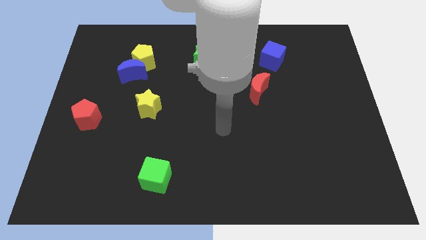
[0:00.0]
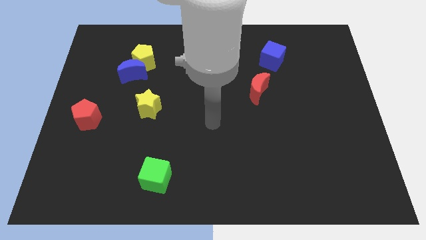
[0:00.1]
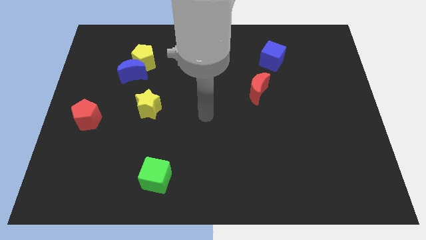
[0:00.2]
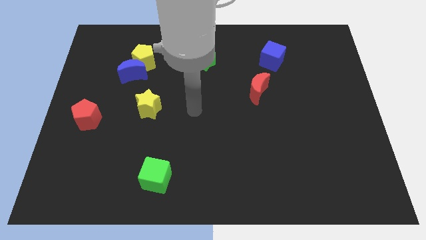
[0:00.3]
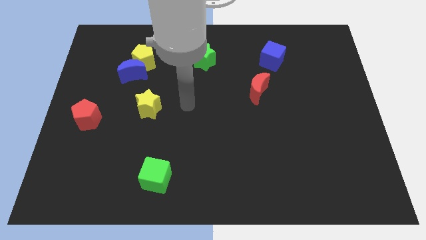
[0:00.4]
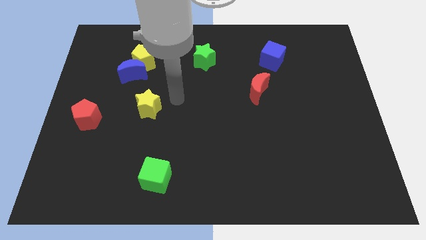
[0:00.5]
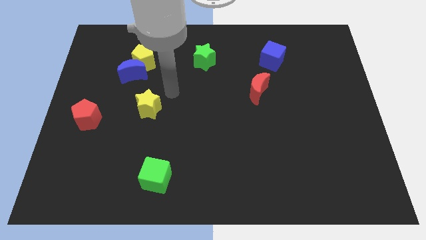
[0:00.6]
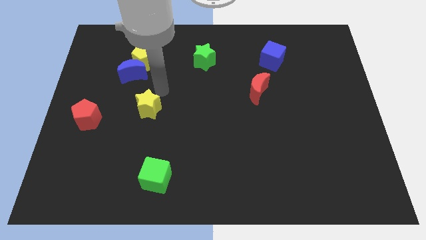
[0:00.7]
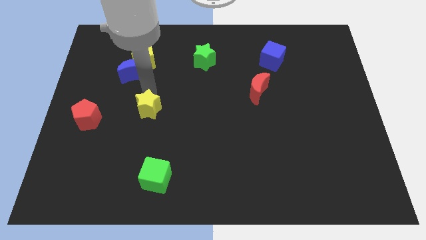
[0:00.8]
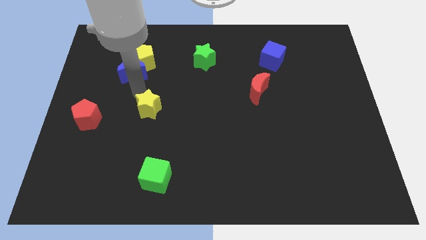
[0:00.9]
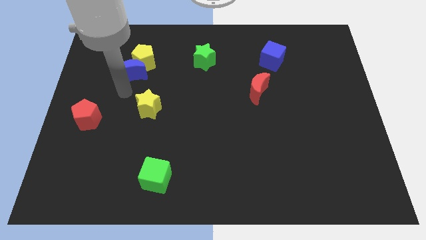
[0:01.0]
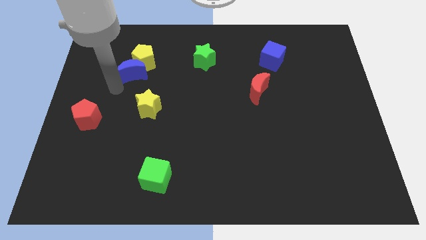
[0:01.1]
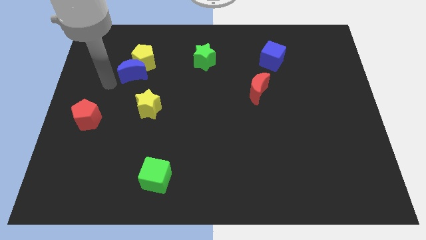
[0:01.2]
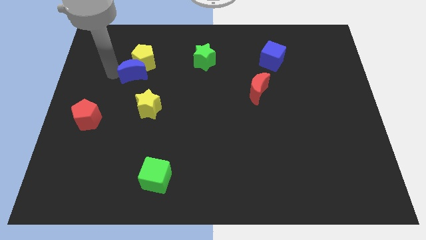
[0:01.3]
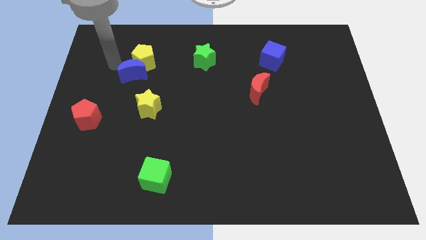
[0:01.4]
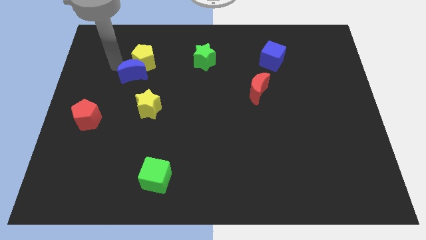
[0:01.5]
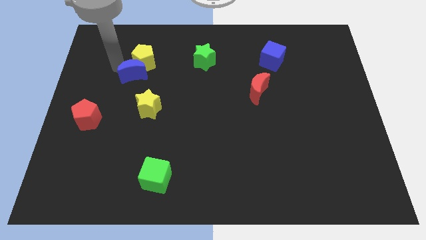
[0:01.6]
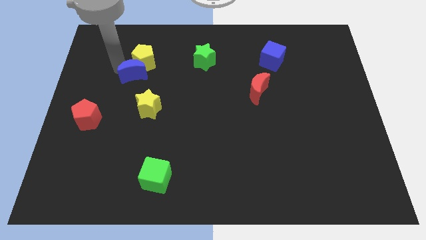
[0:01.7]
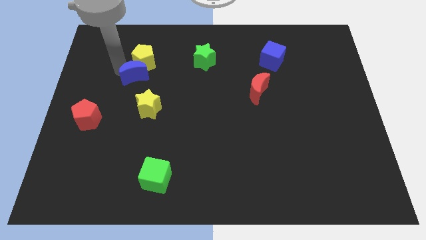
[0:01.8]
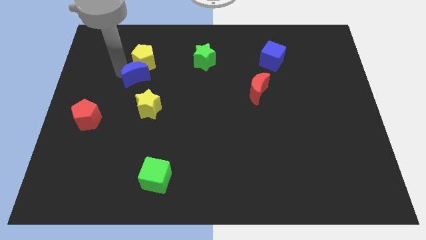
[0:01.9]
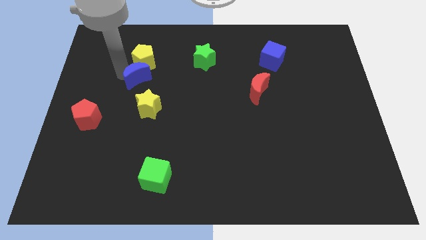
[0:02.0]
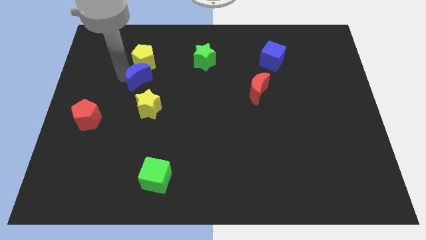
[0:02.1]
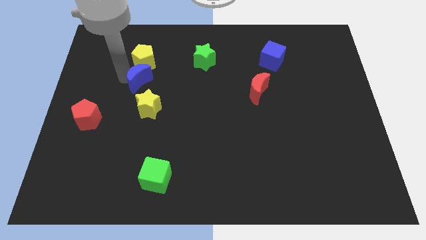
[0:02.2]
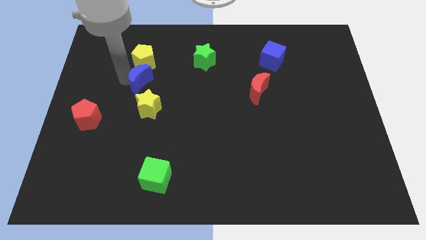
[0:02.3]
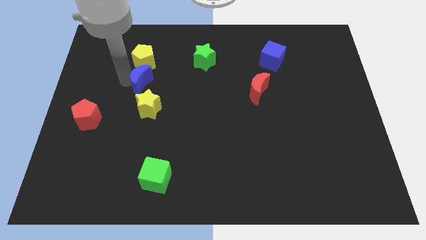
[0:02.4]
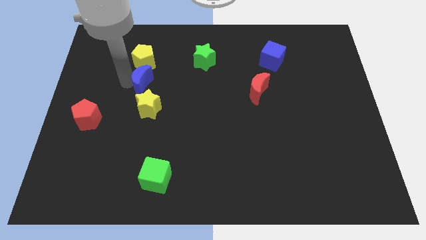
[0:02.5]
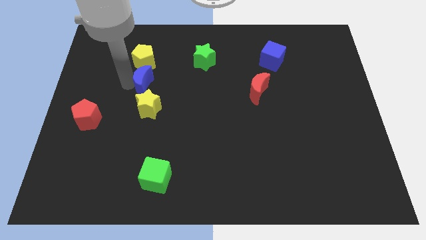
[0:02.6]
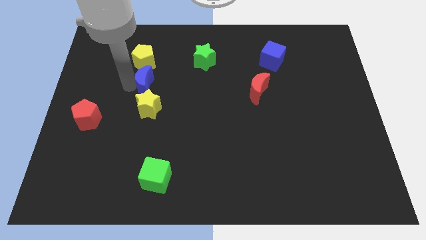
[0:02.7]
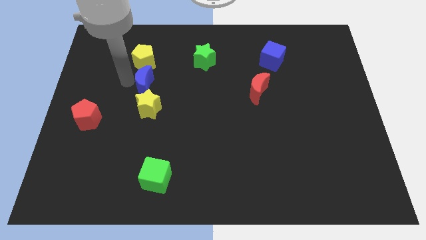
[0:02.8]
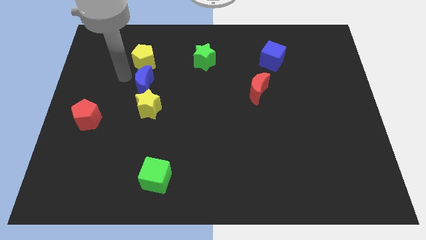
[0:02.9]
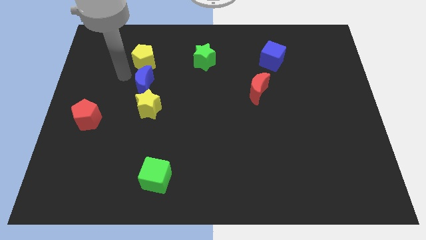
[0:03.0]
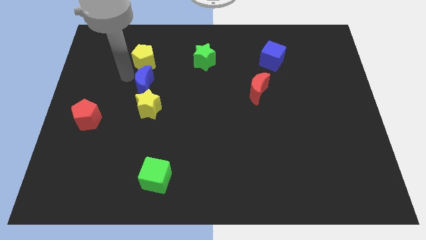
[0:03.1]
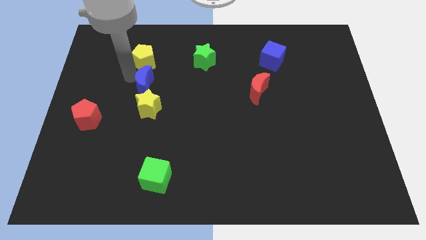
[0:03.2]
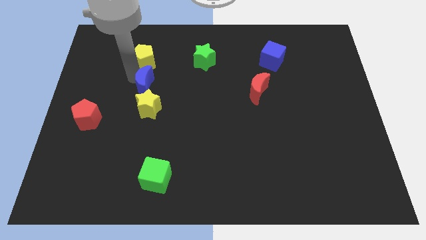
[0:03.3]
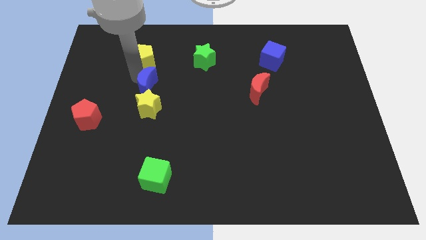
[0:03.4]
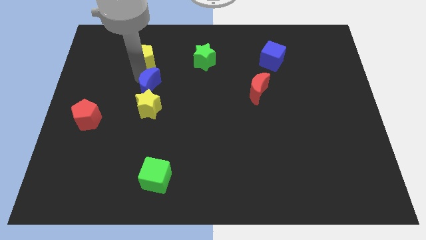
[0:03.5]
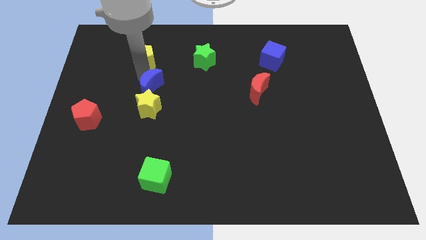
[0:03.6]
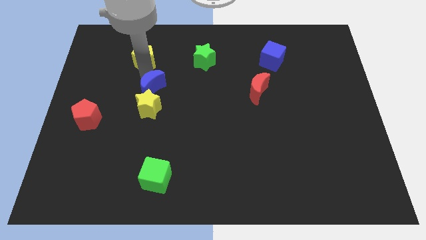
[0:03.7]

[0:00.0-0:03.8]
slightly push the blue moon diagonally down and right

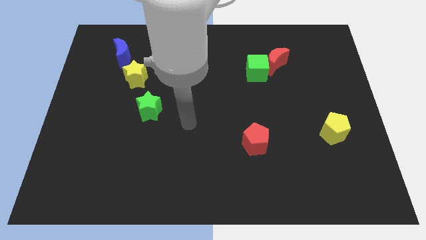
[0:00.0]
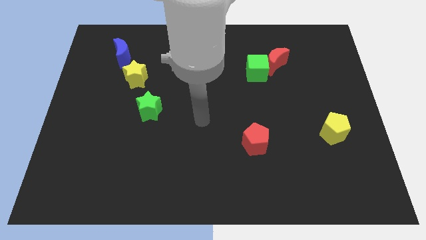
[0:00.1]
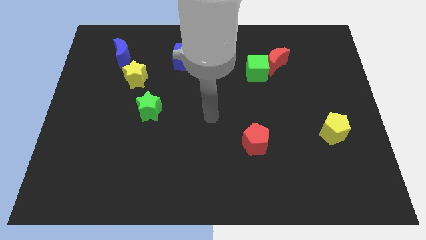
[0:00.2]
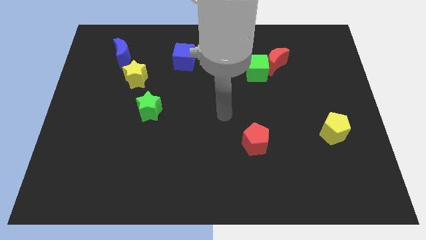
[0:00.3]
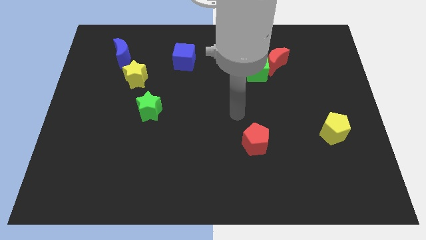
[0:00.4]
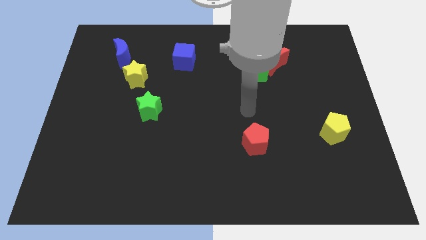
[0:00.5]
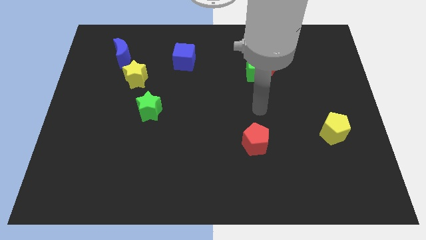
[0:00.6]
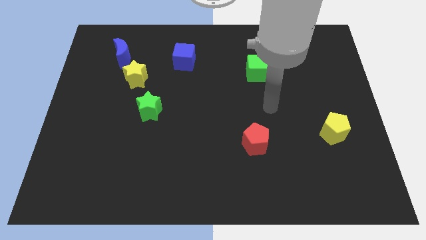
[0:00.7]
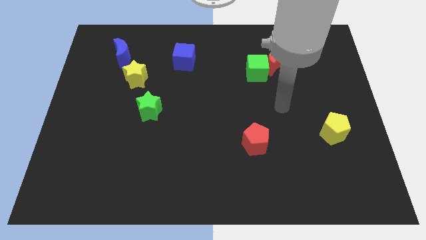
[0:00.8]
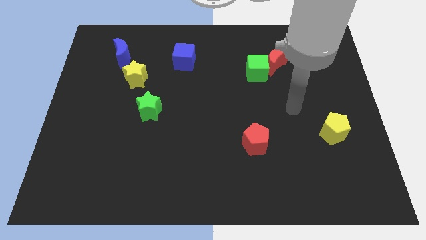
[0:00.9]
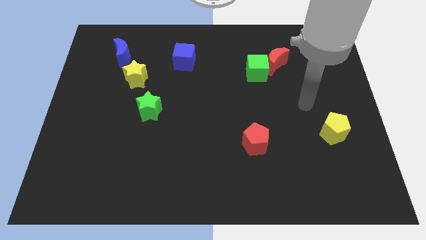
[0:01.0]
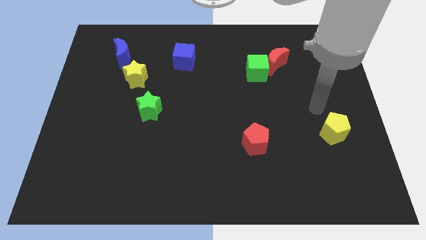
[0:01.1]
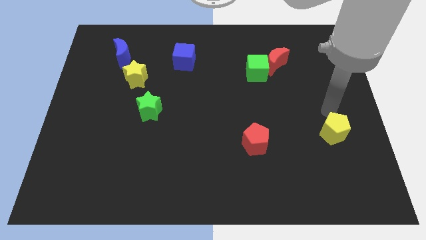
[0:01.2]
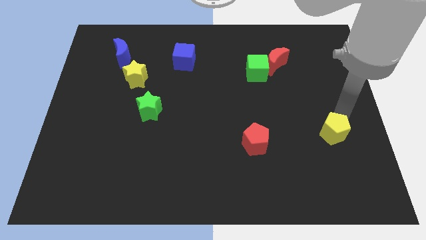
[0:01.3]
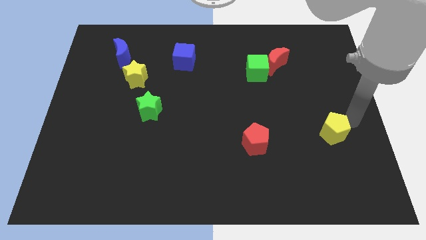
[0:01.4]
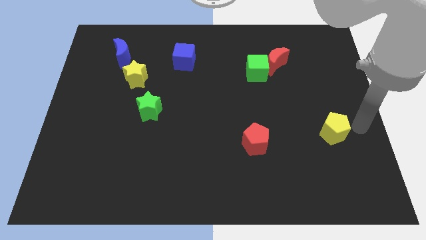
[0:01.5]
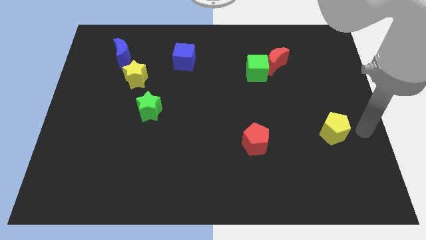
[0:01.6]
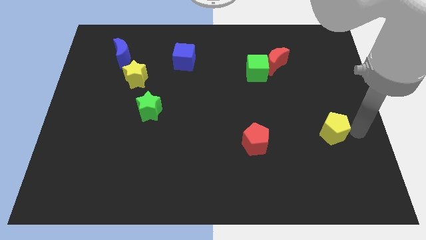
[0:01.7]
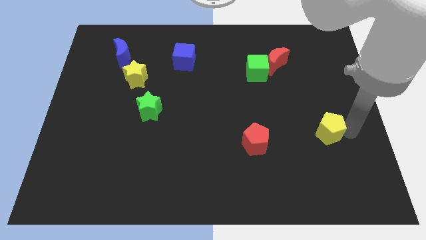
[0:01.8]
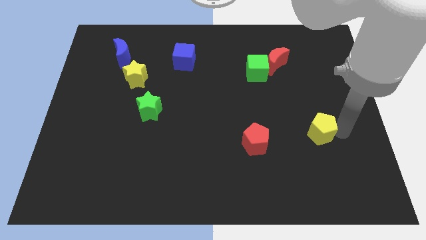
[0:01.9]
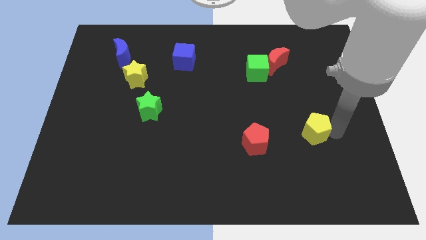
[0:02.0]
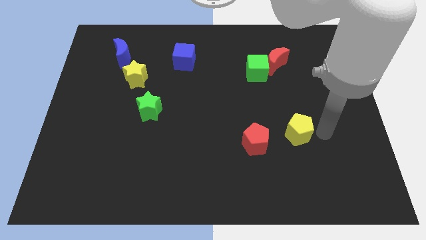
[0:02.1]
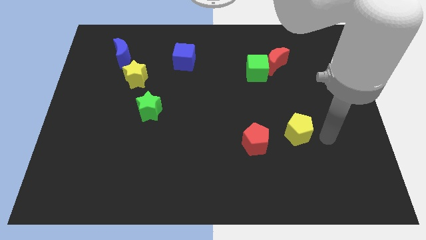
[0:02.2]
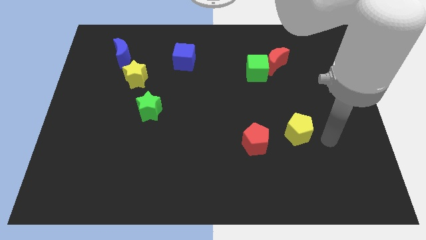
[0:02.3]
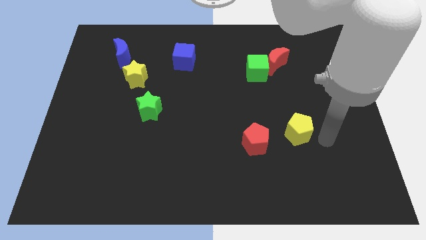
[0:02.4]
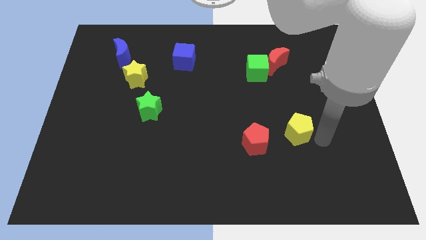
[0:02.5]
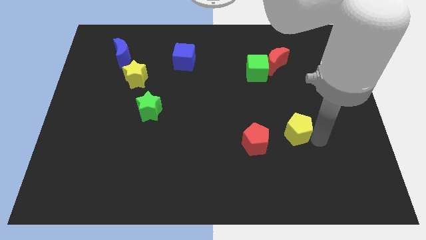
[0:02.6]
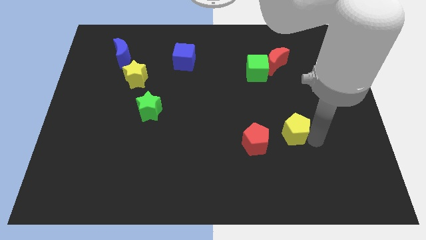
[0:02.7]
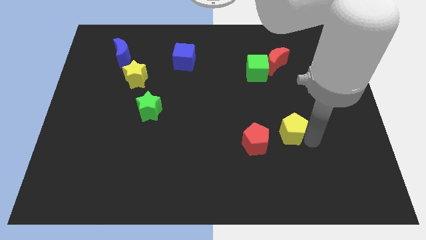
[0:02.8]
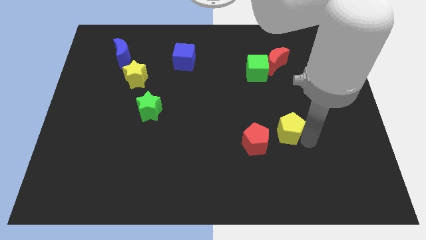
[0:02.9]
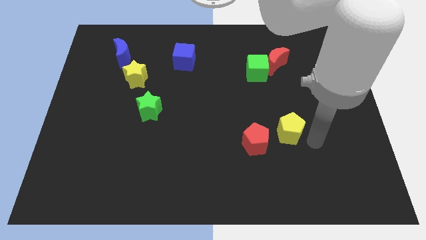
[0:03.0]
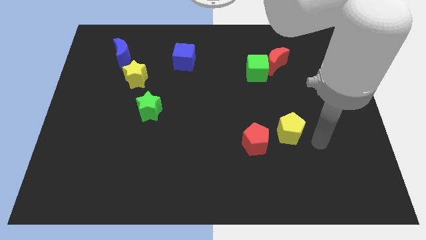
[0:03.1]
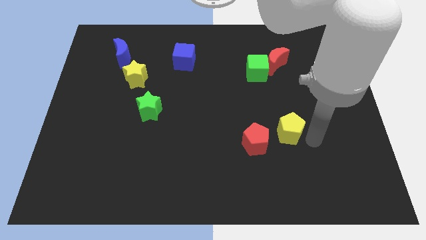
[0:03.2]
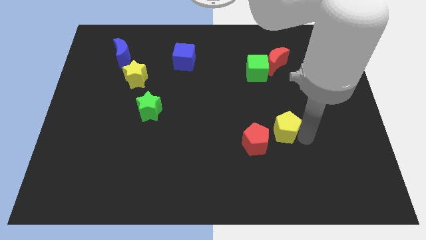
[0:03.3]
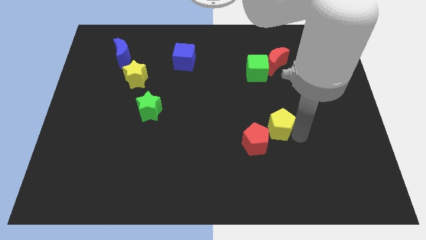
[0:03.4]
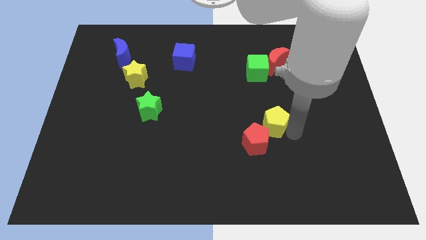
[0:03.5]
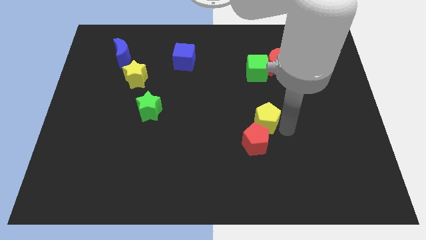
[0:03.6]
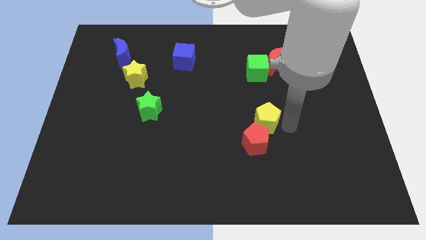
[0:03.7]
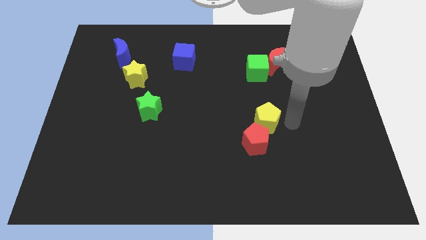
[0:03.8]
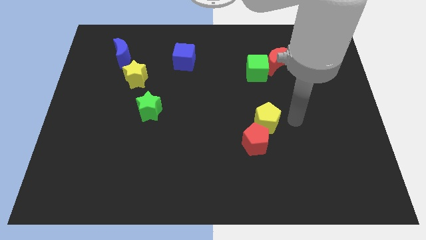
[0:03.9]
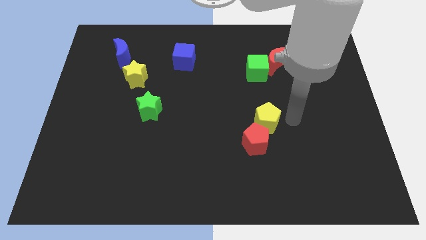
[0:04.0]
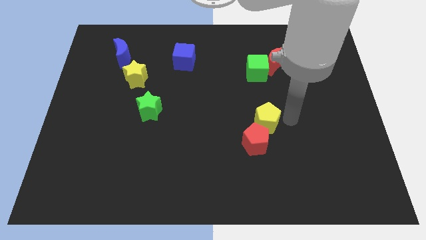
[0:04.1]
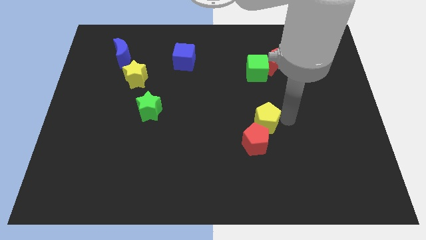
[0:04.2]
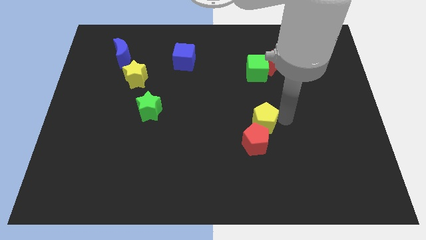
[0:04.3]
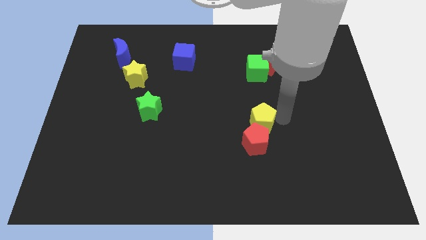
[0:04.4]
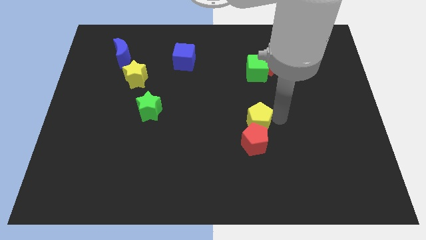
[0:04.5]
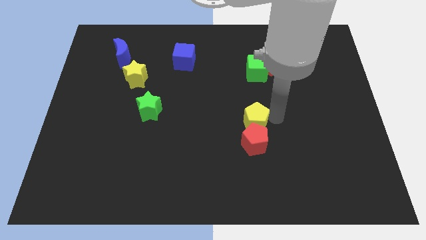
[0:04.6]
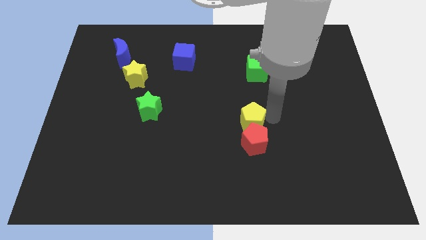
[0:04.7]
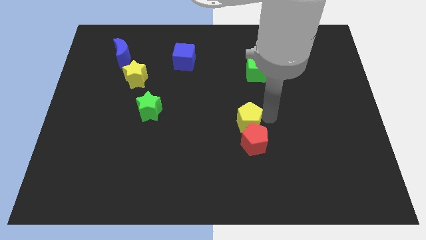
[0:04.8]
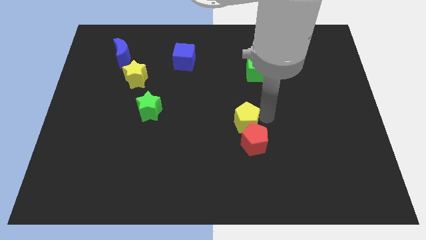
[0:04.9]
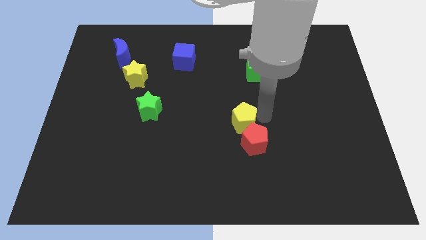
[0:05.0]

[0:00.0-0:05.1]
push the yellow pentagon left
